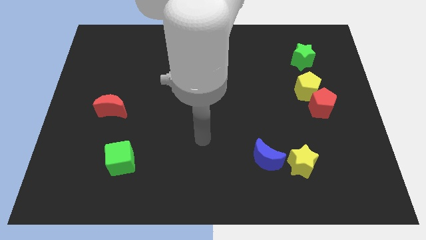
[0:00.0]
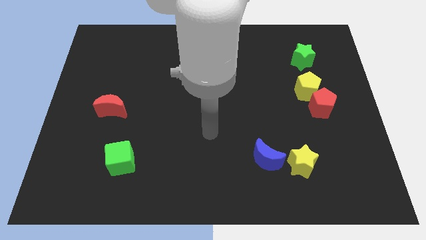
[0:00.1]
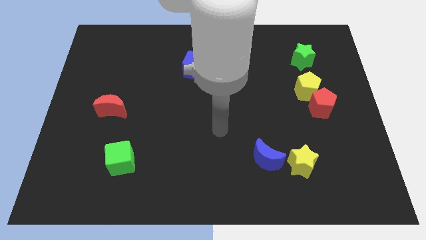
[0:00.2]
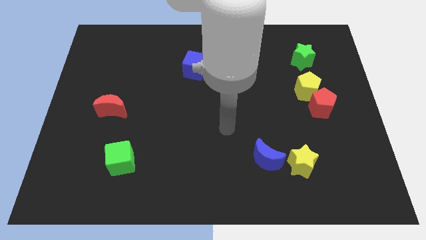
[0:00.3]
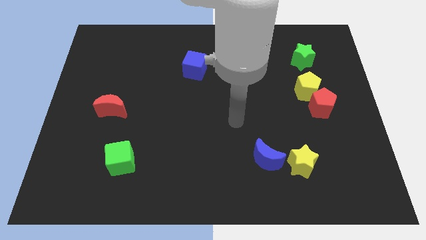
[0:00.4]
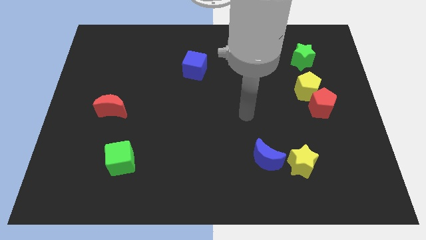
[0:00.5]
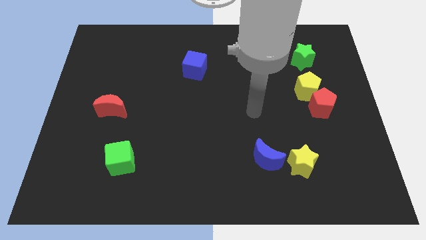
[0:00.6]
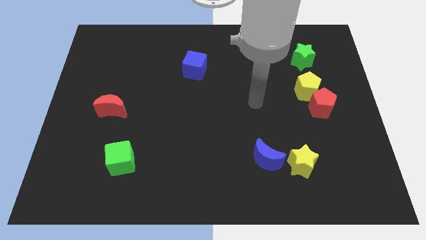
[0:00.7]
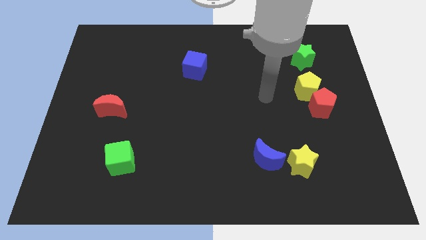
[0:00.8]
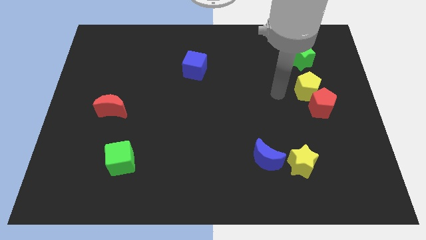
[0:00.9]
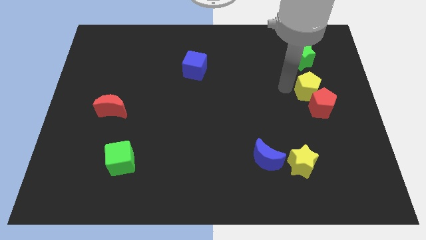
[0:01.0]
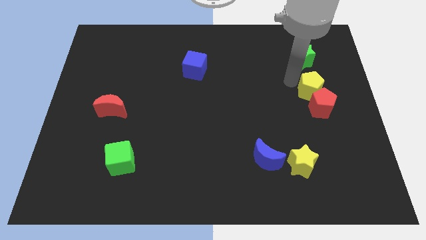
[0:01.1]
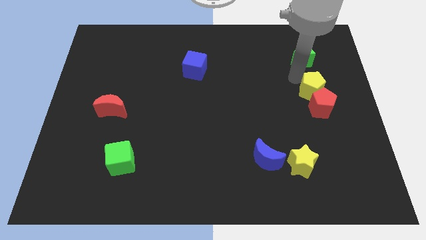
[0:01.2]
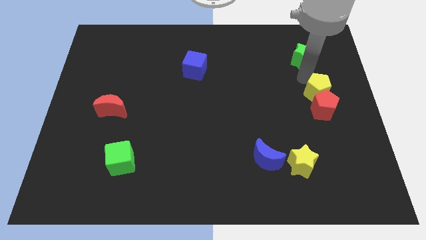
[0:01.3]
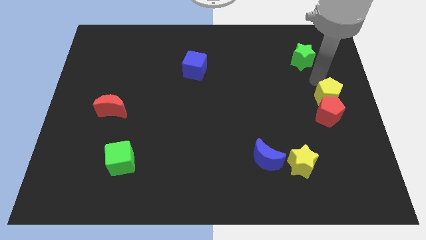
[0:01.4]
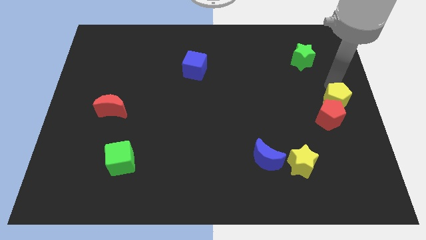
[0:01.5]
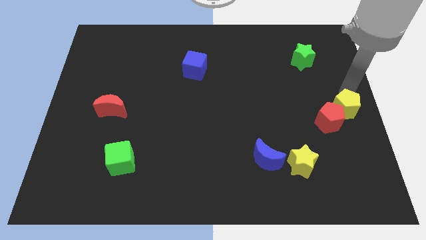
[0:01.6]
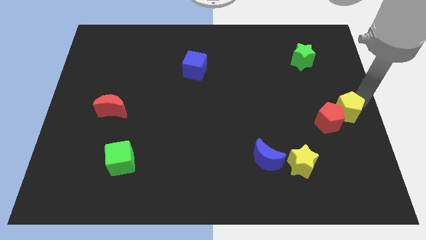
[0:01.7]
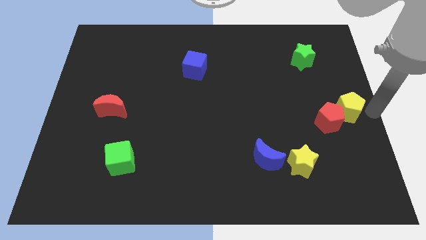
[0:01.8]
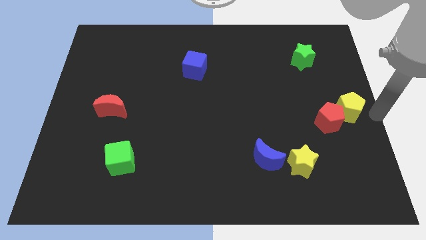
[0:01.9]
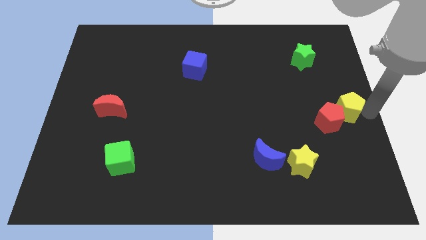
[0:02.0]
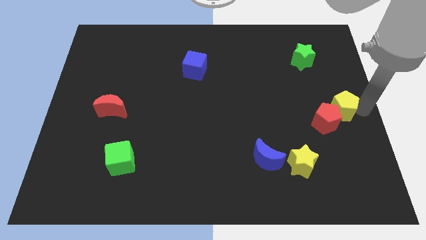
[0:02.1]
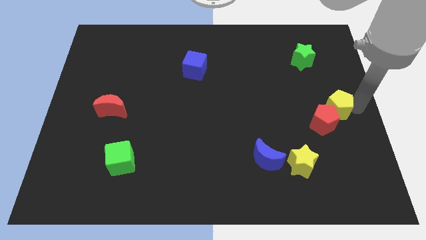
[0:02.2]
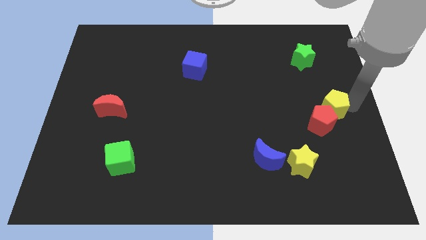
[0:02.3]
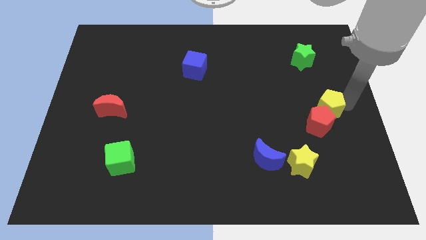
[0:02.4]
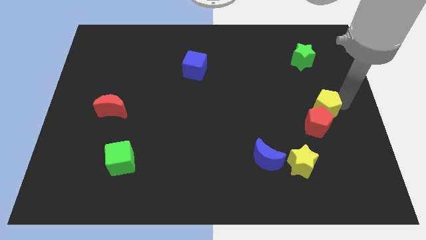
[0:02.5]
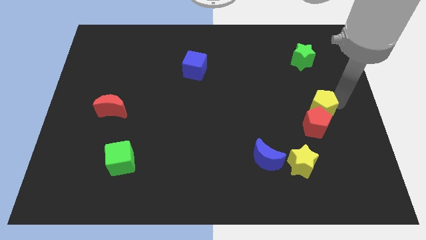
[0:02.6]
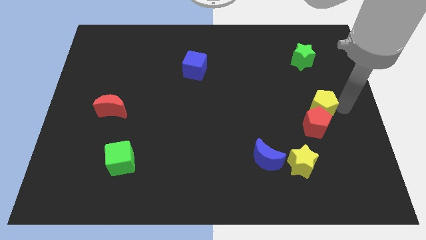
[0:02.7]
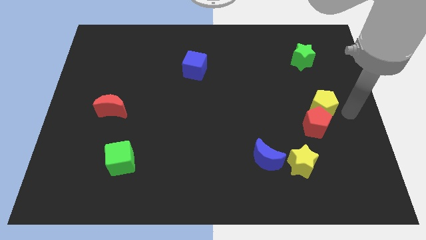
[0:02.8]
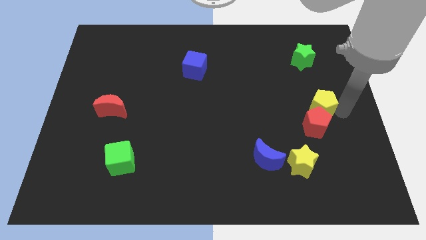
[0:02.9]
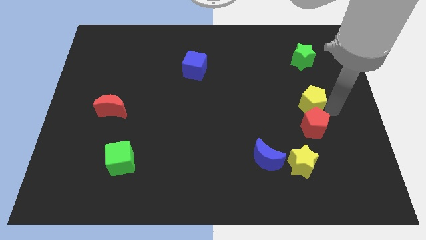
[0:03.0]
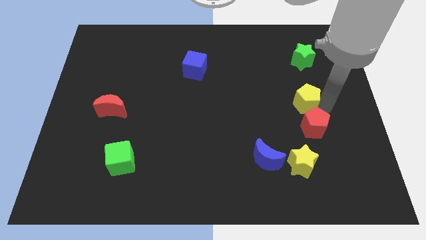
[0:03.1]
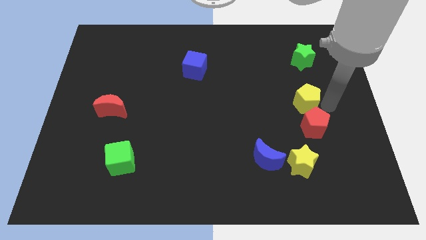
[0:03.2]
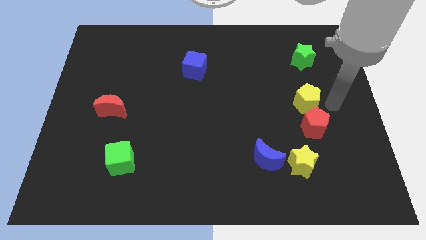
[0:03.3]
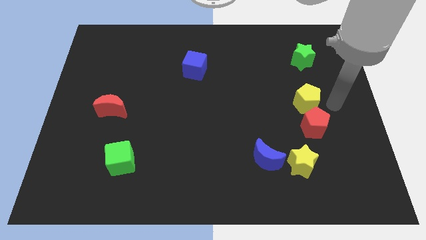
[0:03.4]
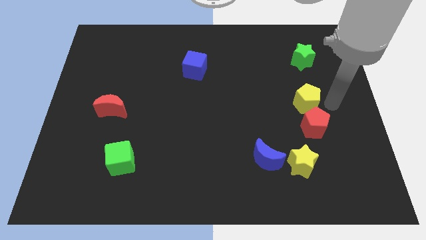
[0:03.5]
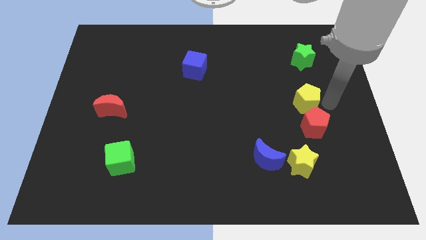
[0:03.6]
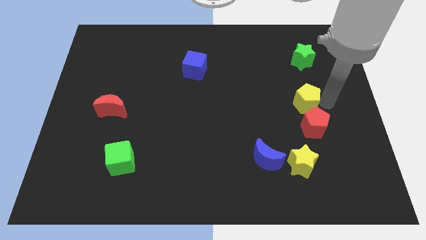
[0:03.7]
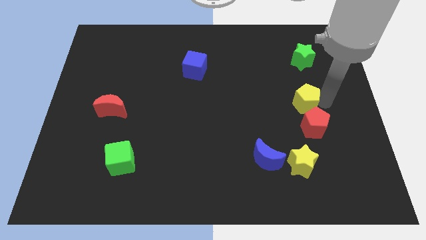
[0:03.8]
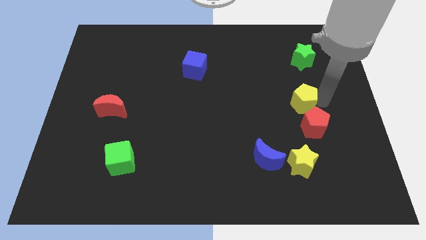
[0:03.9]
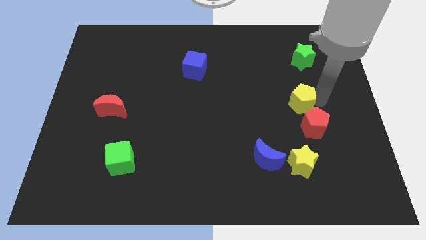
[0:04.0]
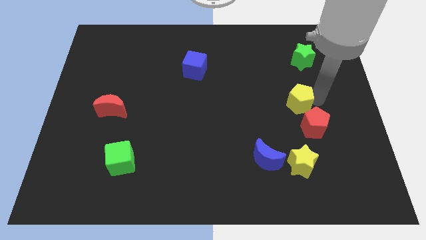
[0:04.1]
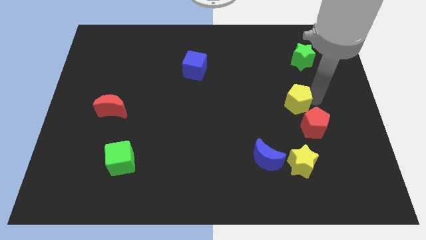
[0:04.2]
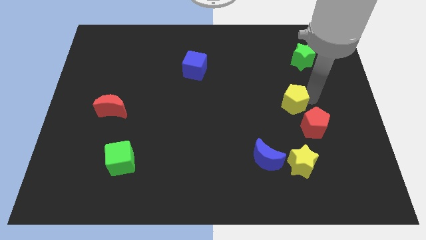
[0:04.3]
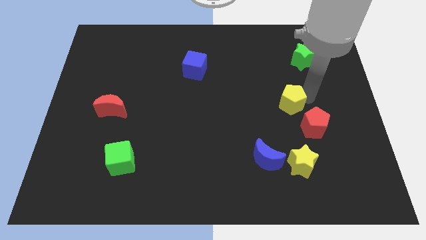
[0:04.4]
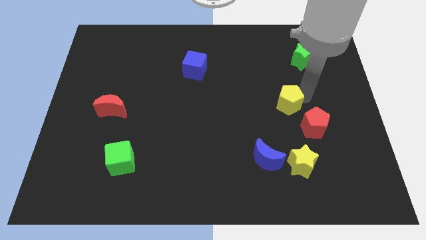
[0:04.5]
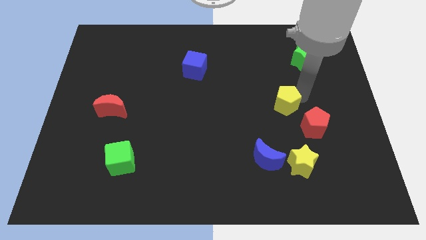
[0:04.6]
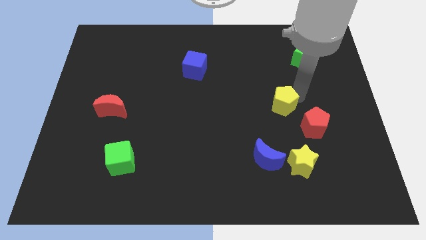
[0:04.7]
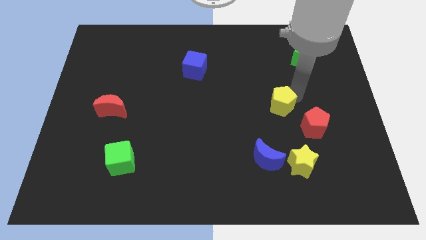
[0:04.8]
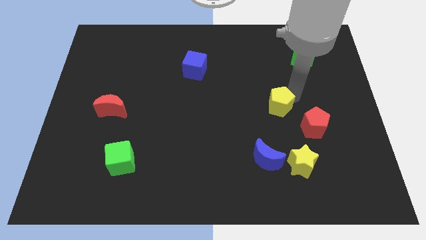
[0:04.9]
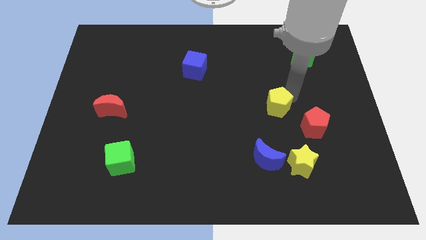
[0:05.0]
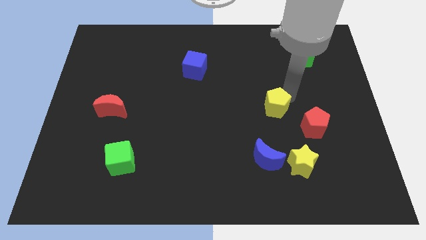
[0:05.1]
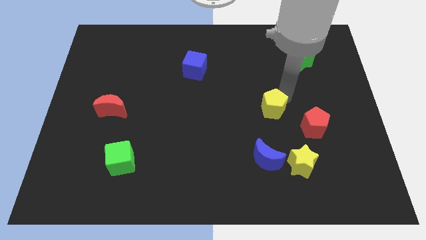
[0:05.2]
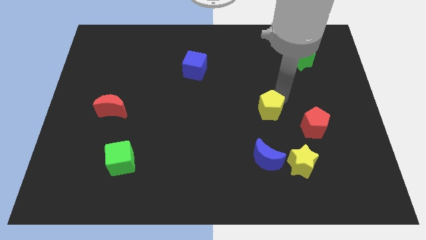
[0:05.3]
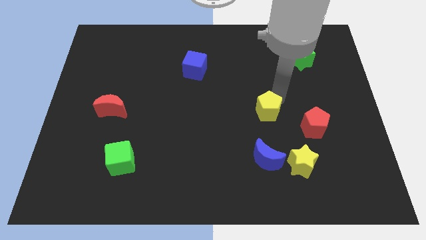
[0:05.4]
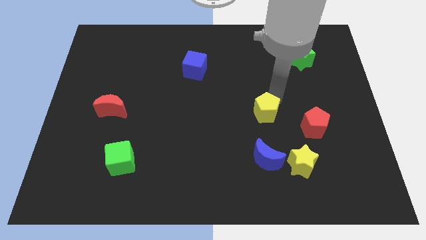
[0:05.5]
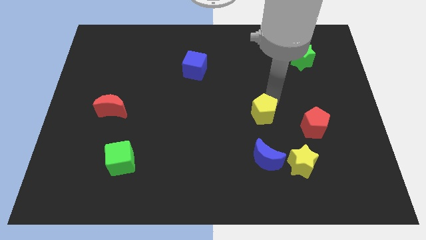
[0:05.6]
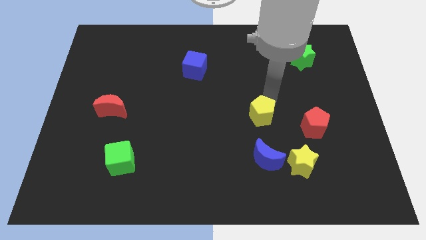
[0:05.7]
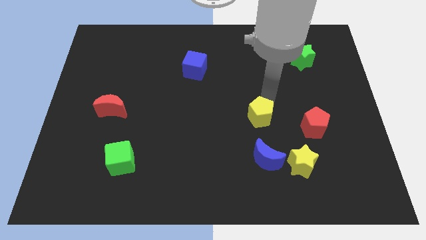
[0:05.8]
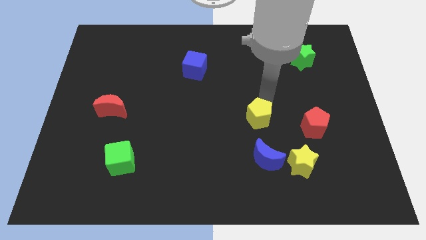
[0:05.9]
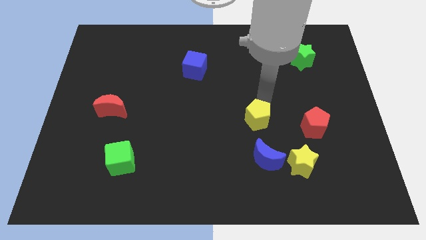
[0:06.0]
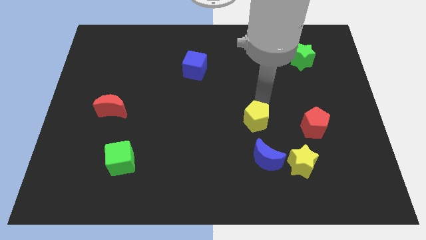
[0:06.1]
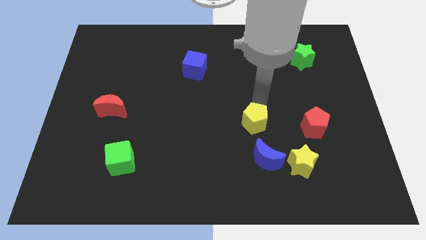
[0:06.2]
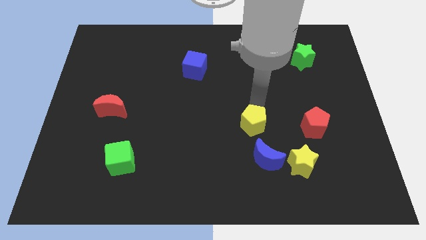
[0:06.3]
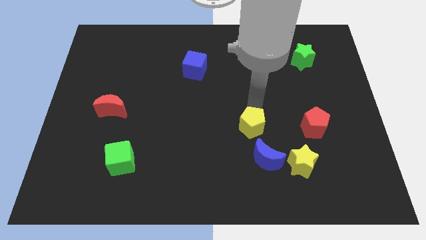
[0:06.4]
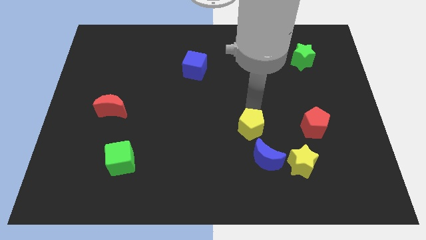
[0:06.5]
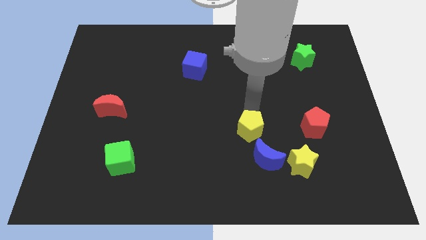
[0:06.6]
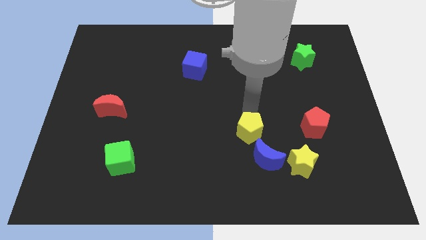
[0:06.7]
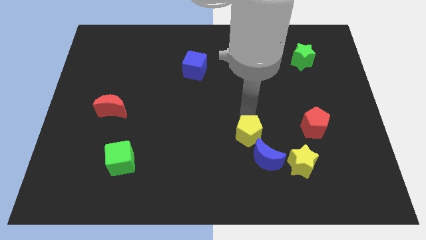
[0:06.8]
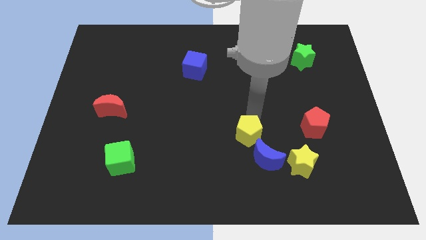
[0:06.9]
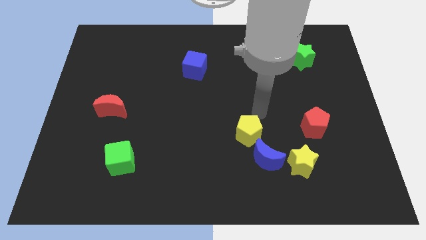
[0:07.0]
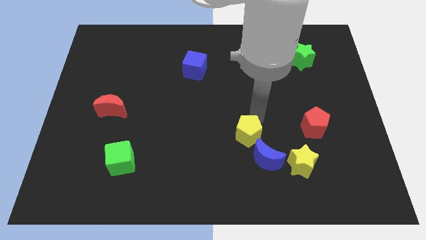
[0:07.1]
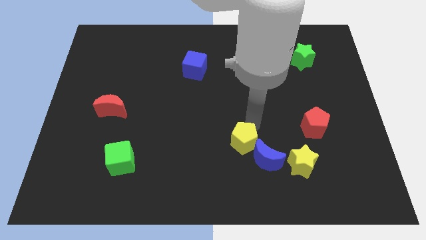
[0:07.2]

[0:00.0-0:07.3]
move the yellow pentagon diagonally downwards and to the left

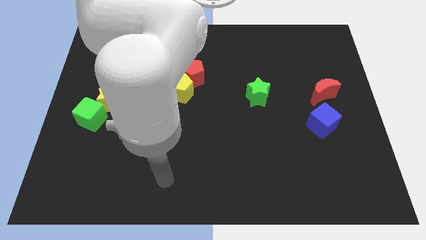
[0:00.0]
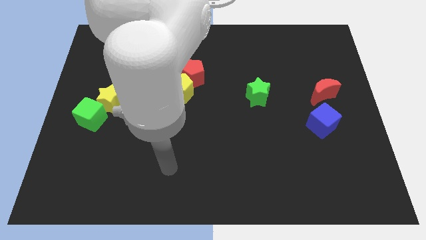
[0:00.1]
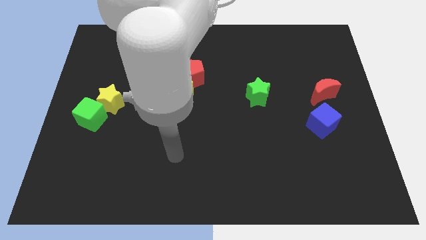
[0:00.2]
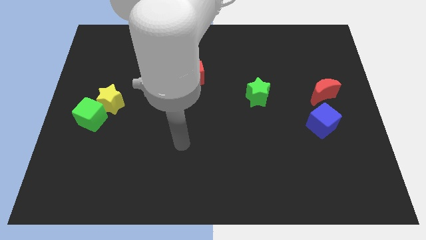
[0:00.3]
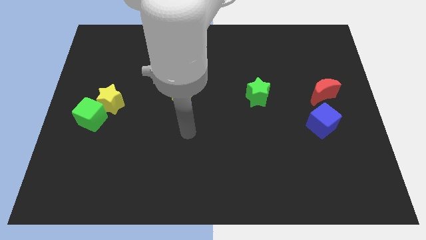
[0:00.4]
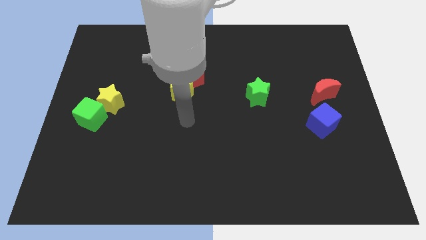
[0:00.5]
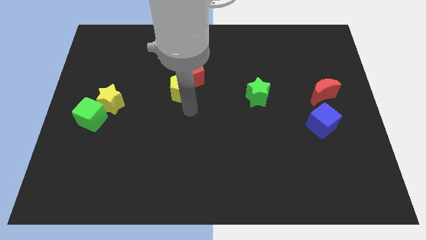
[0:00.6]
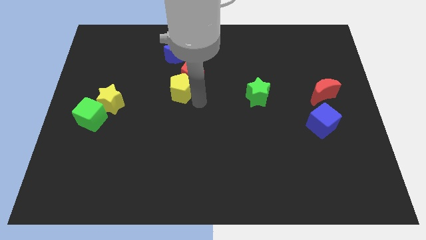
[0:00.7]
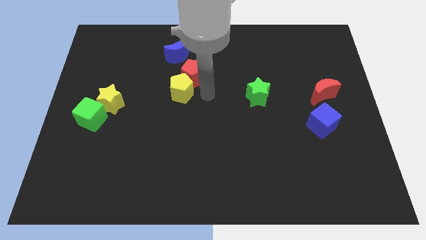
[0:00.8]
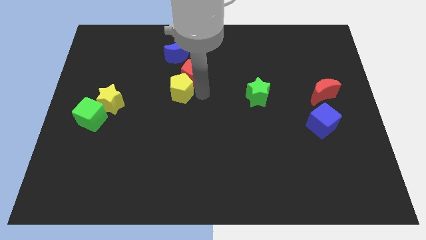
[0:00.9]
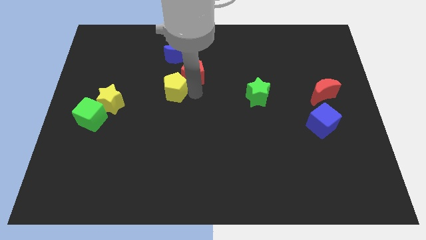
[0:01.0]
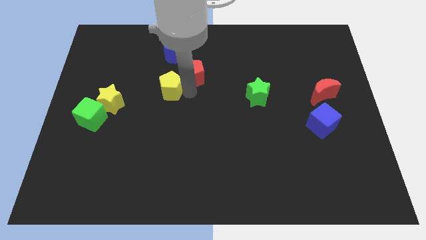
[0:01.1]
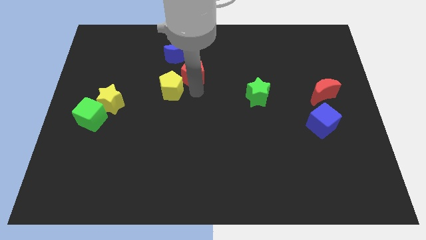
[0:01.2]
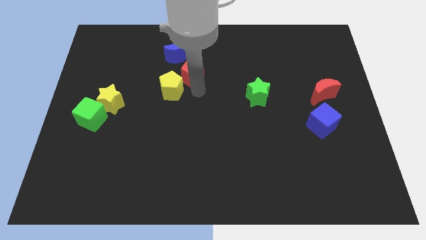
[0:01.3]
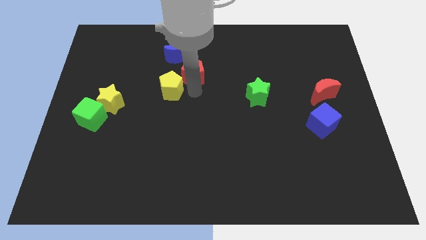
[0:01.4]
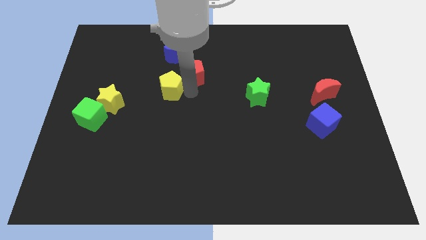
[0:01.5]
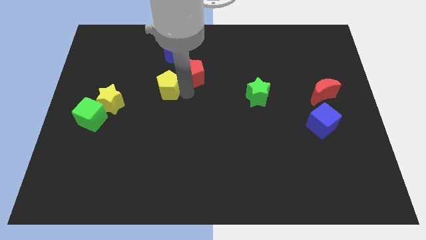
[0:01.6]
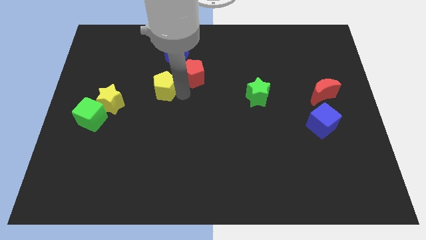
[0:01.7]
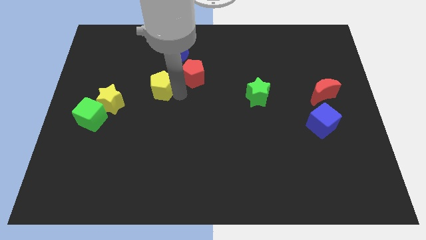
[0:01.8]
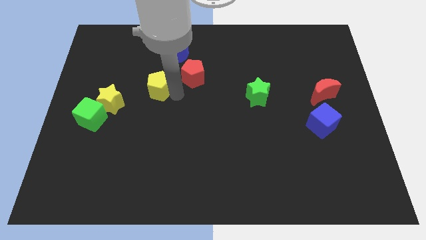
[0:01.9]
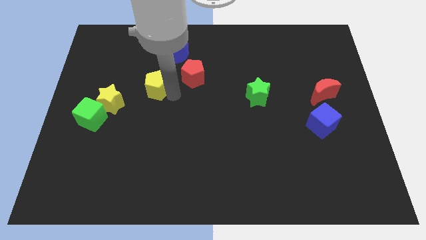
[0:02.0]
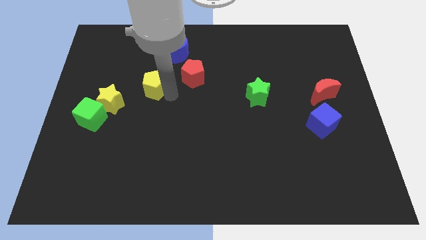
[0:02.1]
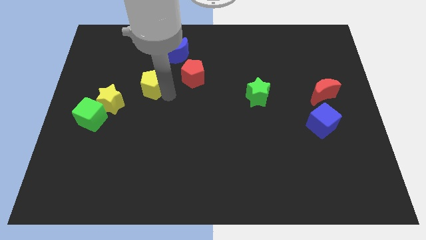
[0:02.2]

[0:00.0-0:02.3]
push the yellow pentagon a bit to the left
